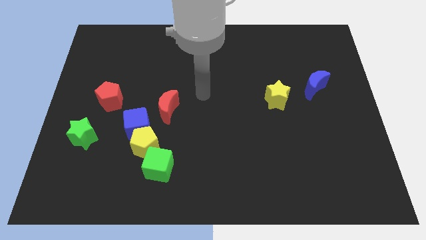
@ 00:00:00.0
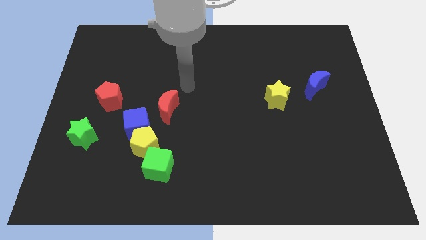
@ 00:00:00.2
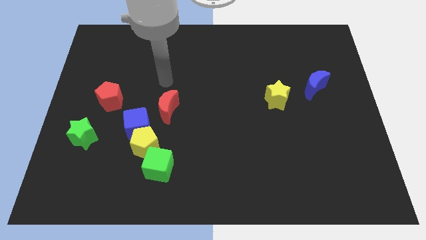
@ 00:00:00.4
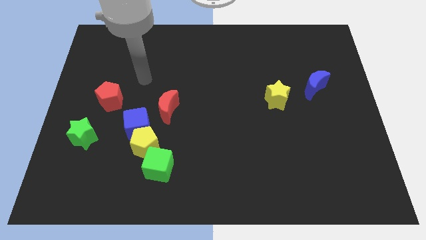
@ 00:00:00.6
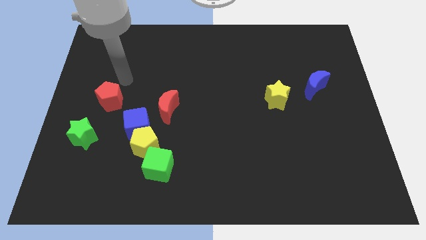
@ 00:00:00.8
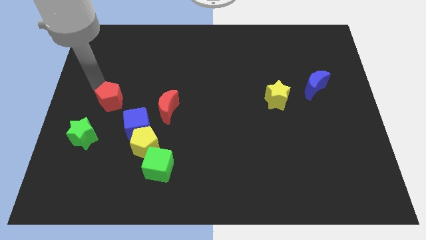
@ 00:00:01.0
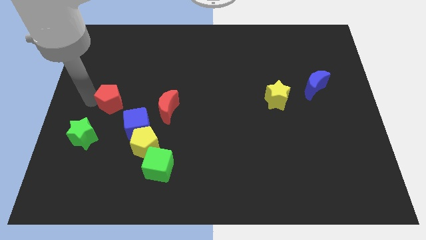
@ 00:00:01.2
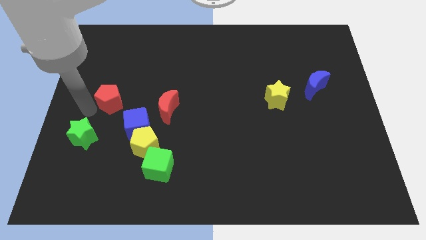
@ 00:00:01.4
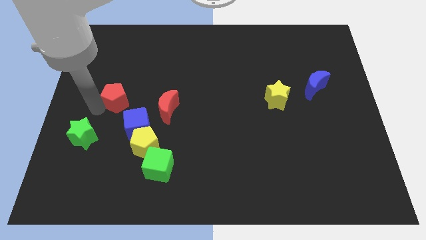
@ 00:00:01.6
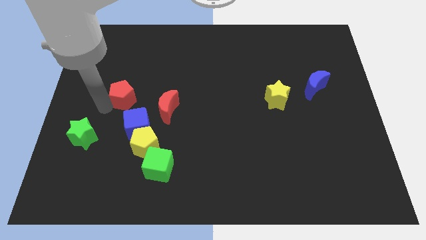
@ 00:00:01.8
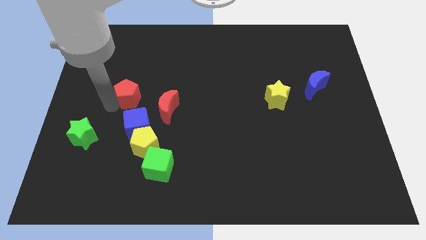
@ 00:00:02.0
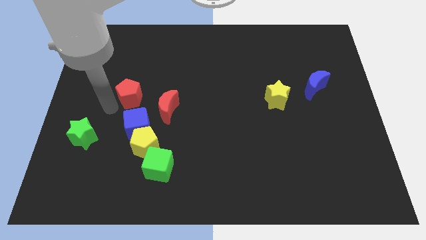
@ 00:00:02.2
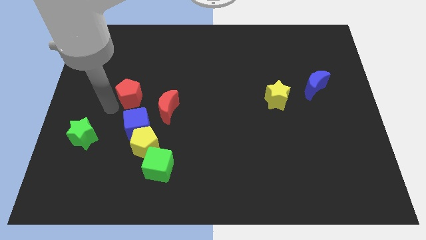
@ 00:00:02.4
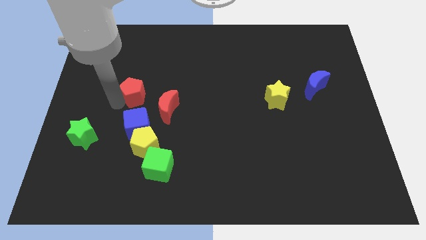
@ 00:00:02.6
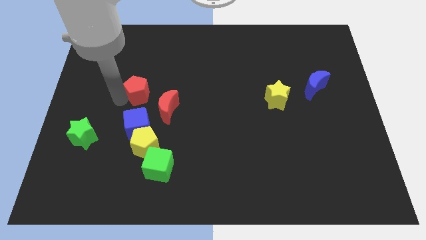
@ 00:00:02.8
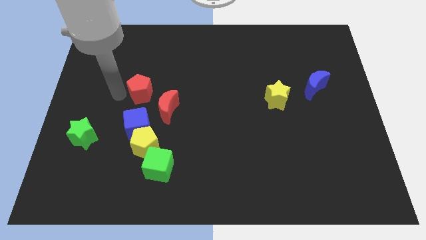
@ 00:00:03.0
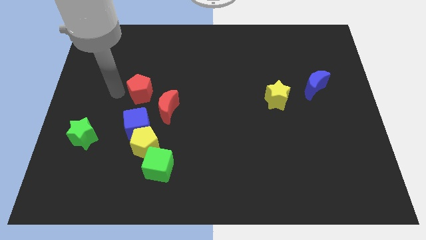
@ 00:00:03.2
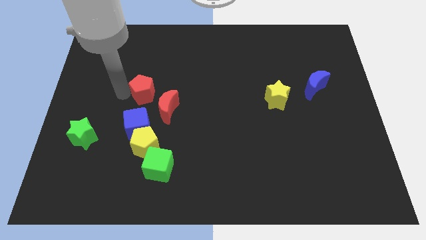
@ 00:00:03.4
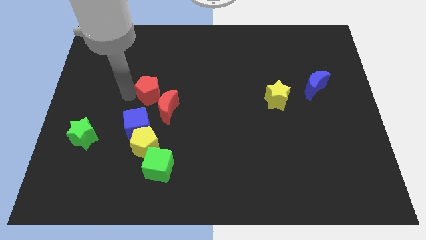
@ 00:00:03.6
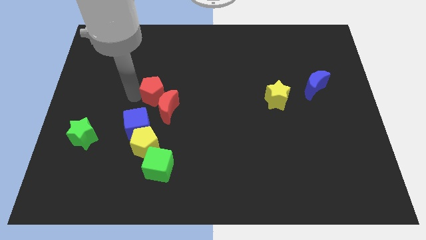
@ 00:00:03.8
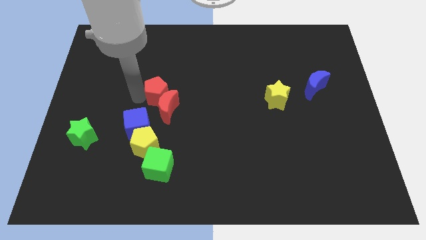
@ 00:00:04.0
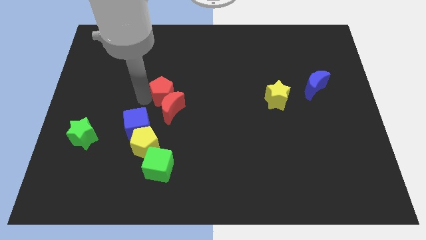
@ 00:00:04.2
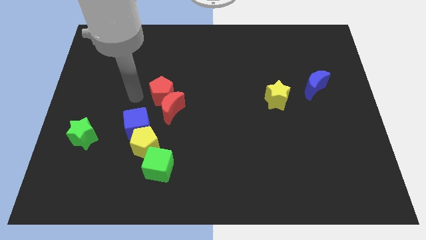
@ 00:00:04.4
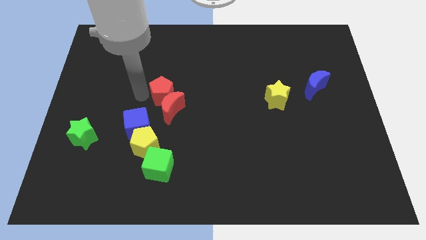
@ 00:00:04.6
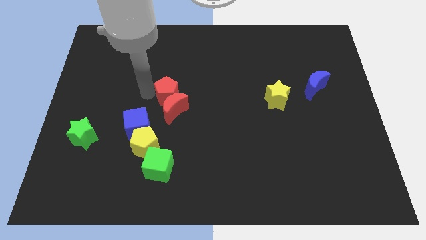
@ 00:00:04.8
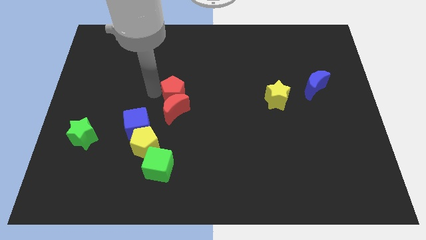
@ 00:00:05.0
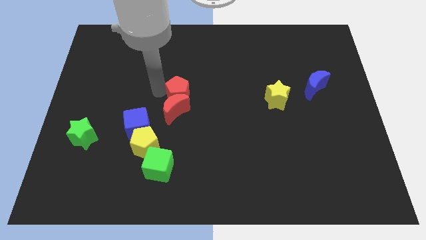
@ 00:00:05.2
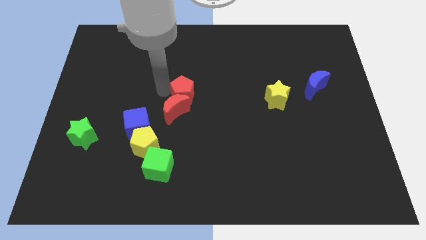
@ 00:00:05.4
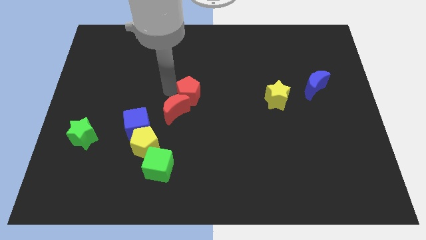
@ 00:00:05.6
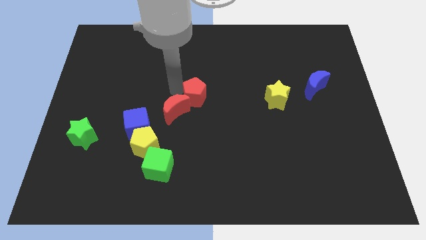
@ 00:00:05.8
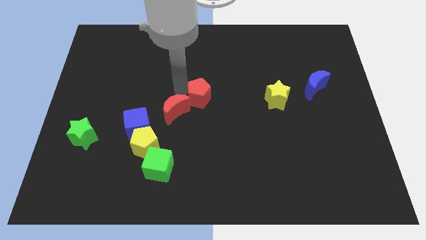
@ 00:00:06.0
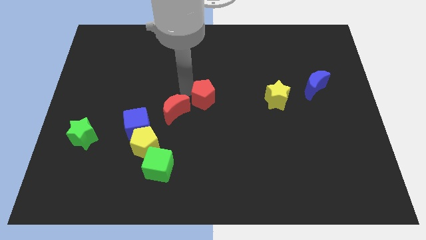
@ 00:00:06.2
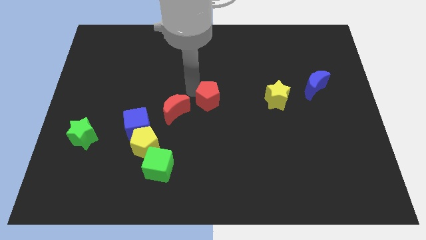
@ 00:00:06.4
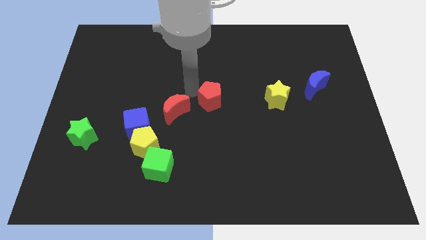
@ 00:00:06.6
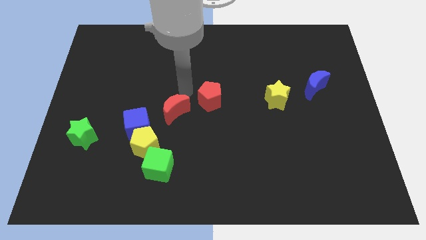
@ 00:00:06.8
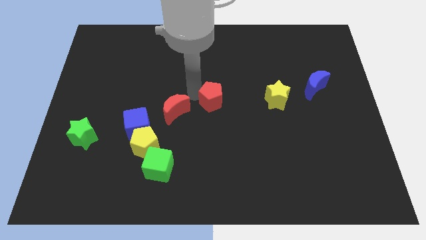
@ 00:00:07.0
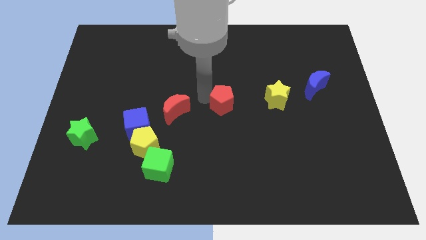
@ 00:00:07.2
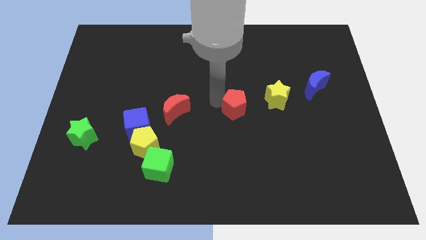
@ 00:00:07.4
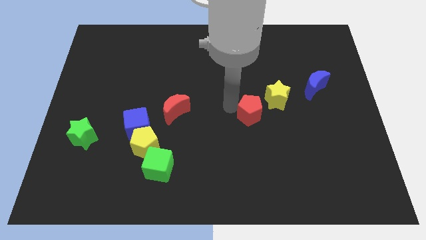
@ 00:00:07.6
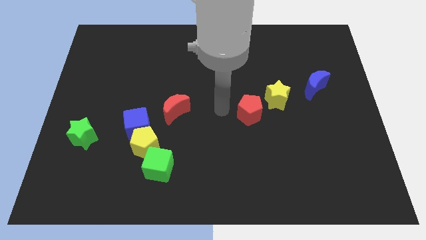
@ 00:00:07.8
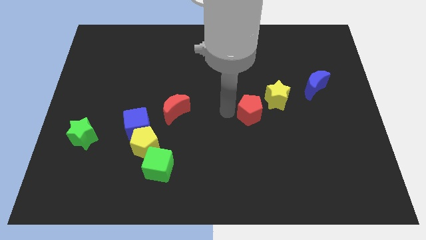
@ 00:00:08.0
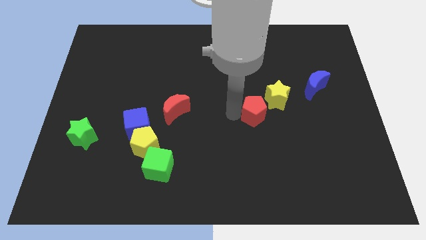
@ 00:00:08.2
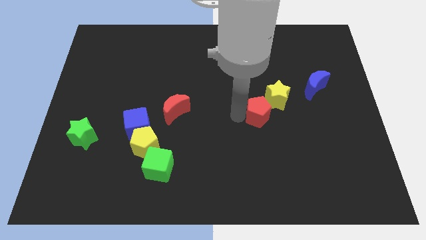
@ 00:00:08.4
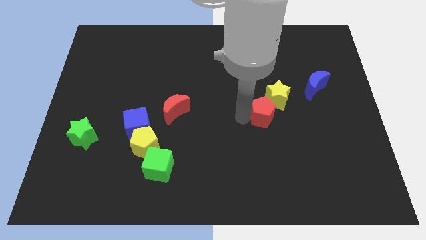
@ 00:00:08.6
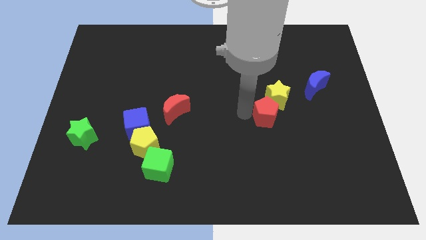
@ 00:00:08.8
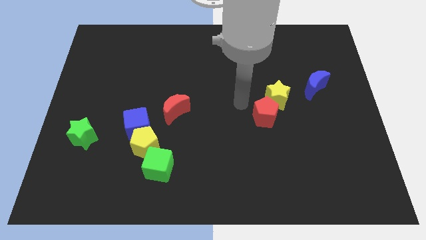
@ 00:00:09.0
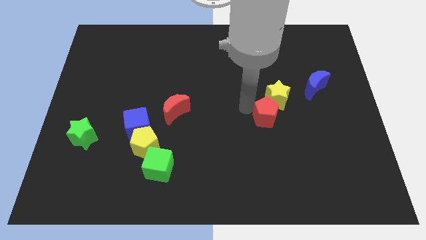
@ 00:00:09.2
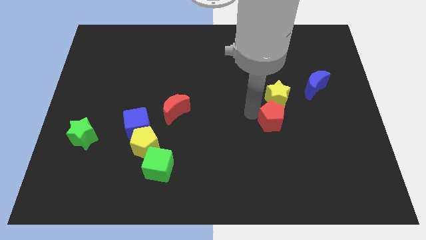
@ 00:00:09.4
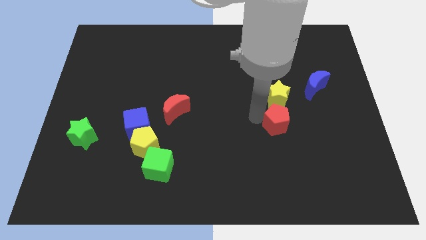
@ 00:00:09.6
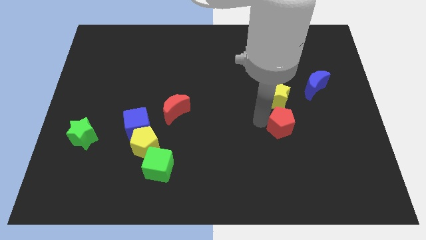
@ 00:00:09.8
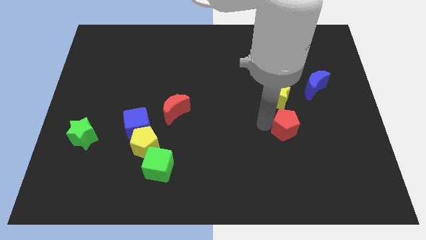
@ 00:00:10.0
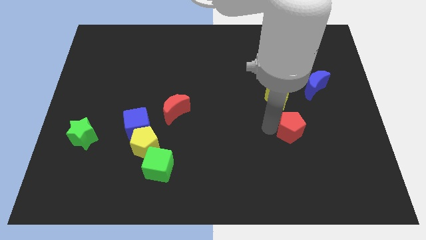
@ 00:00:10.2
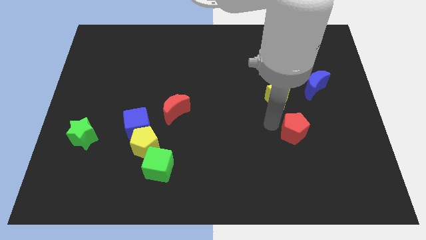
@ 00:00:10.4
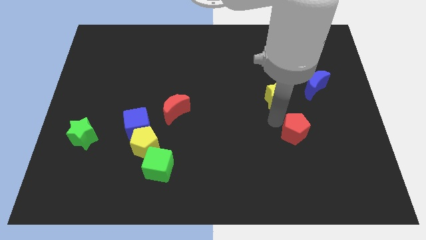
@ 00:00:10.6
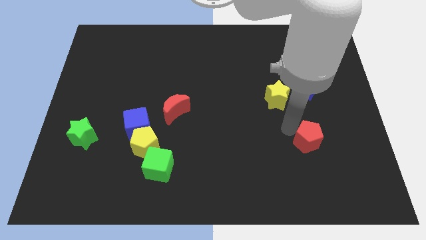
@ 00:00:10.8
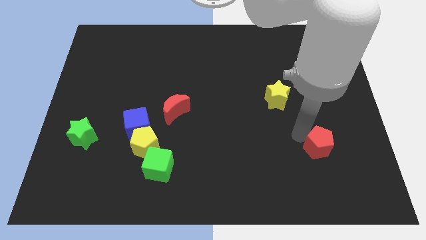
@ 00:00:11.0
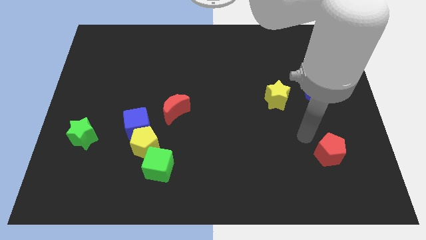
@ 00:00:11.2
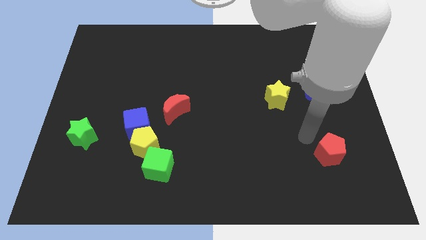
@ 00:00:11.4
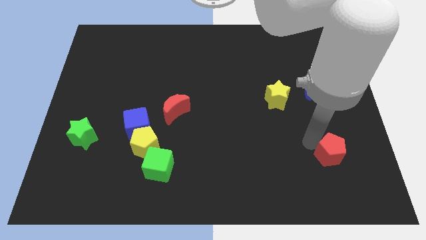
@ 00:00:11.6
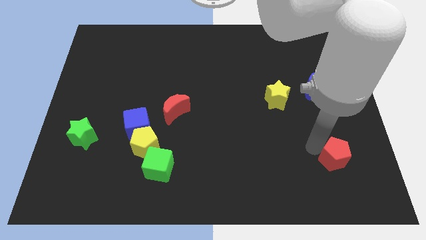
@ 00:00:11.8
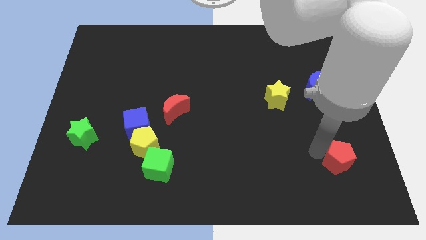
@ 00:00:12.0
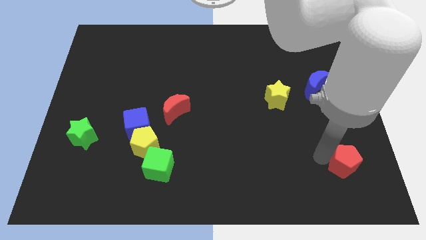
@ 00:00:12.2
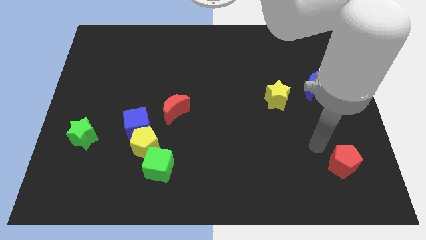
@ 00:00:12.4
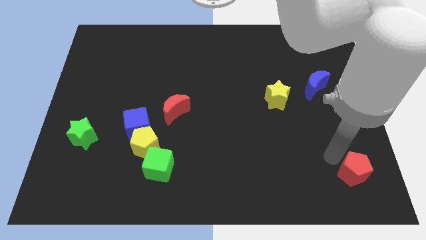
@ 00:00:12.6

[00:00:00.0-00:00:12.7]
push the red pentagon to the lower right corner

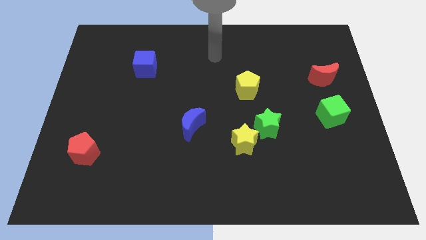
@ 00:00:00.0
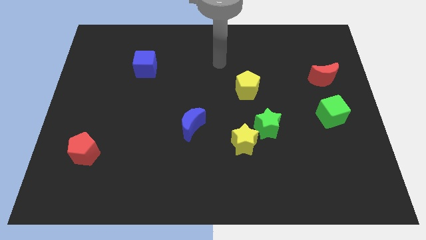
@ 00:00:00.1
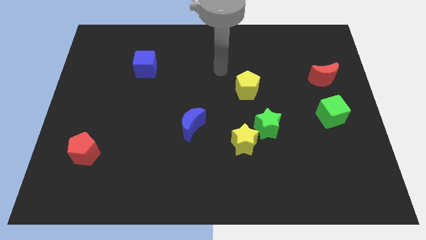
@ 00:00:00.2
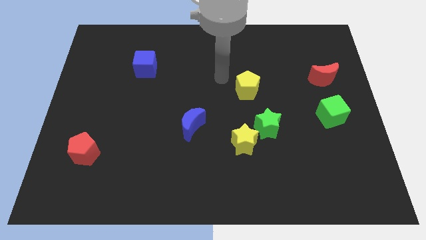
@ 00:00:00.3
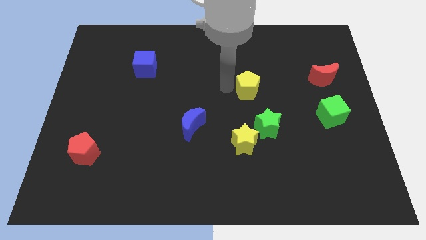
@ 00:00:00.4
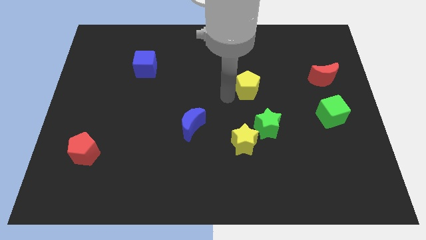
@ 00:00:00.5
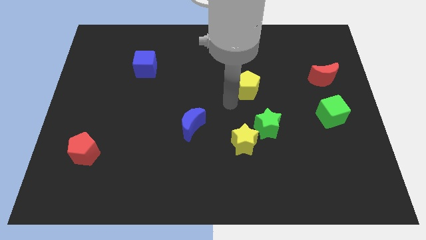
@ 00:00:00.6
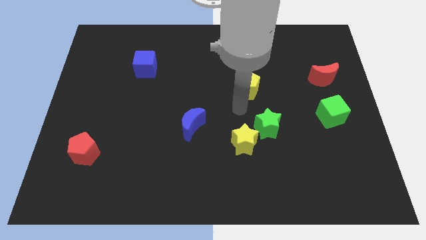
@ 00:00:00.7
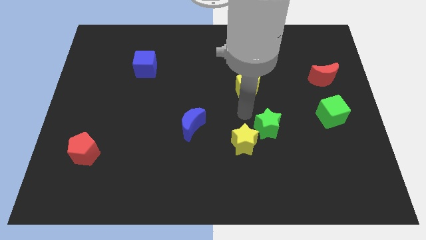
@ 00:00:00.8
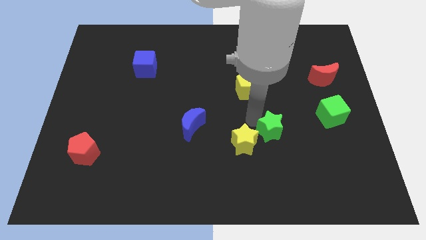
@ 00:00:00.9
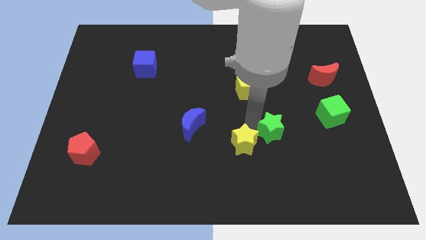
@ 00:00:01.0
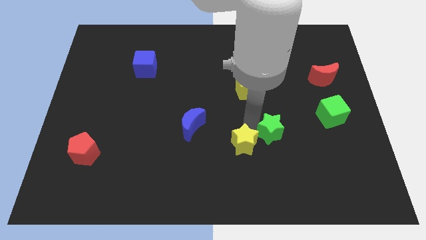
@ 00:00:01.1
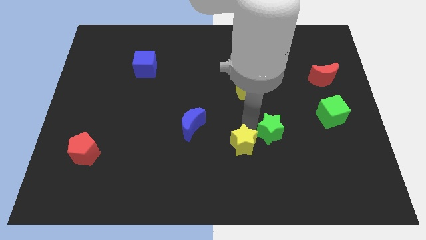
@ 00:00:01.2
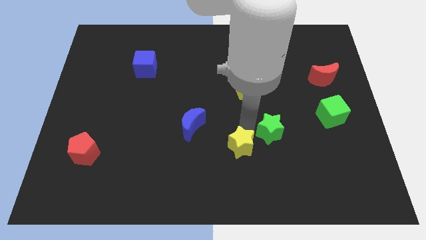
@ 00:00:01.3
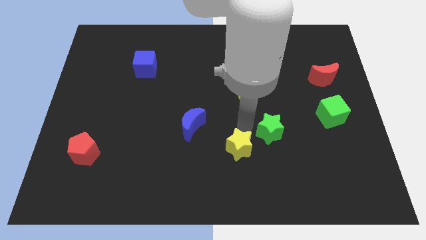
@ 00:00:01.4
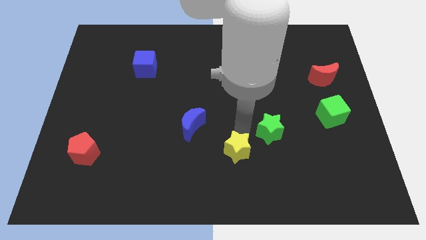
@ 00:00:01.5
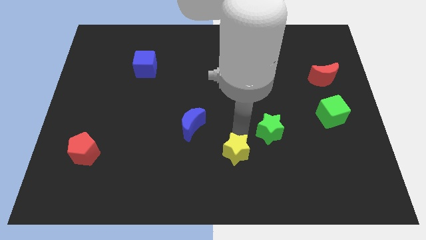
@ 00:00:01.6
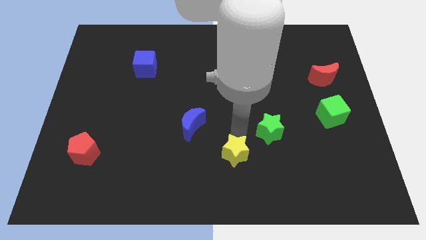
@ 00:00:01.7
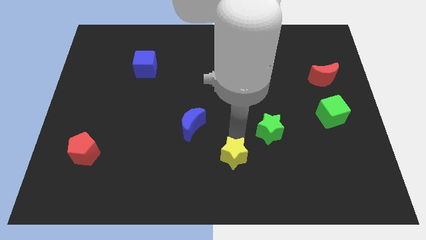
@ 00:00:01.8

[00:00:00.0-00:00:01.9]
move the yellow star to the bottom
